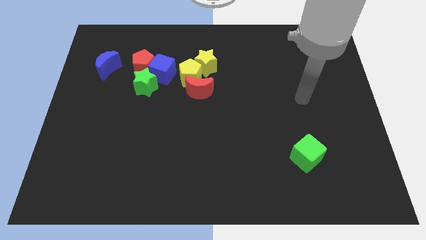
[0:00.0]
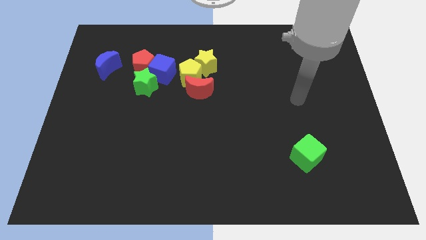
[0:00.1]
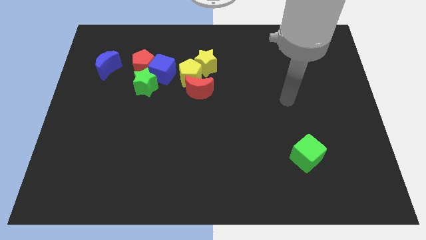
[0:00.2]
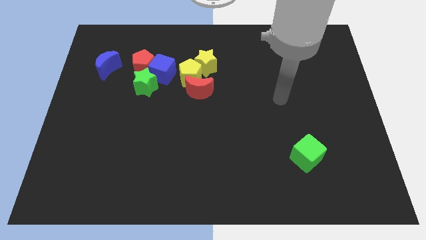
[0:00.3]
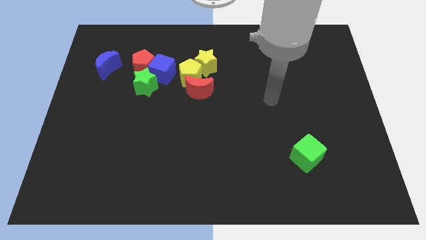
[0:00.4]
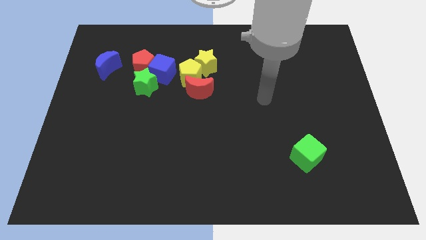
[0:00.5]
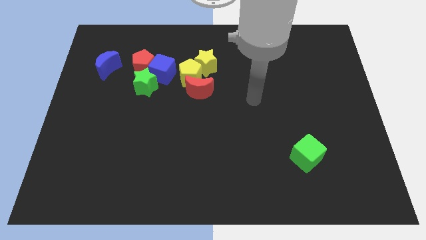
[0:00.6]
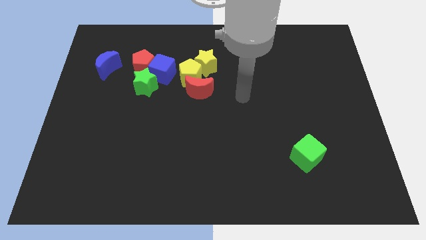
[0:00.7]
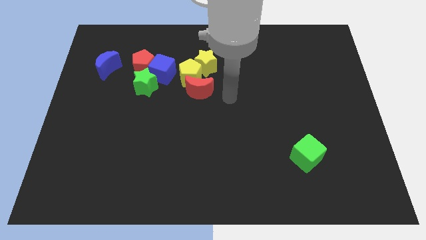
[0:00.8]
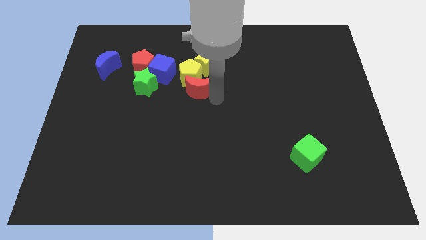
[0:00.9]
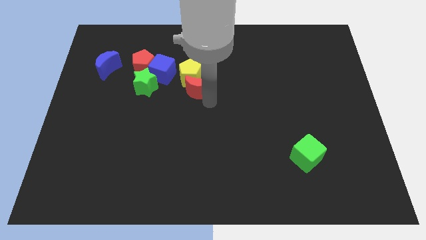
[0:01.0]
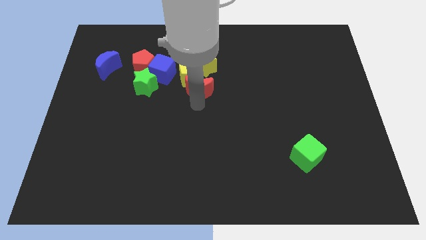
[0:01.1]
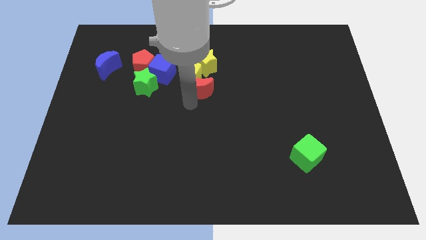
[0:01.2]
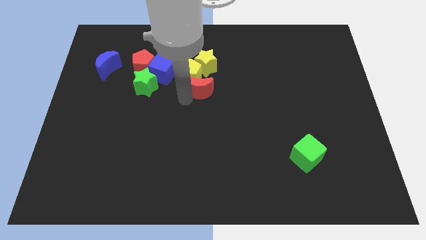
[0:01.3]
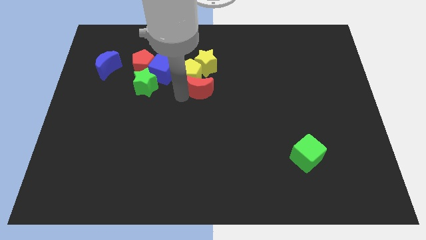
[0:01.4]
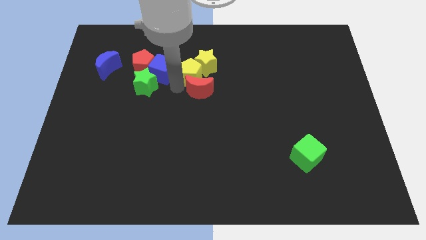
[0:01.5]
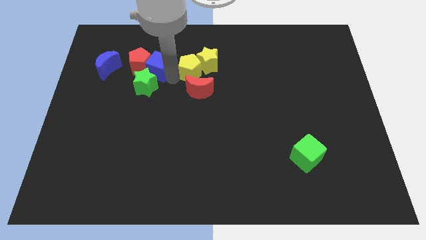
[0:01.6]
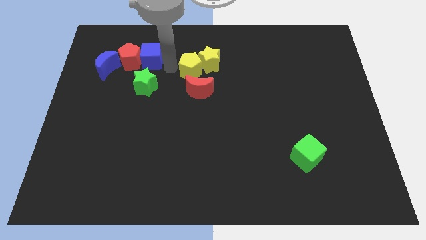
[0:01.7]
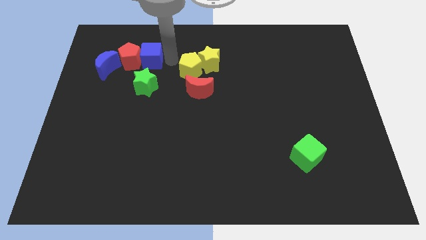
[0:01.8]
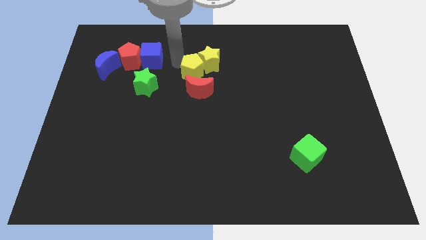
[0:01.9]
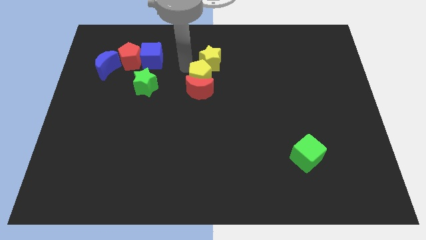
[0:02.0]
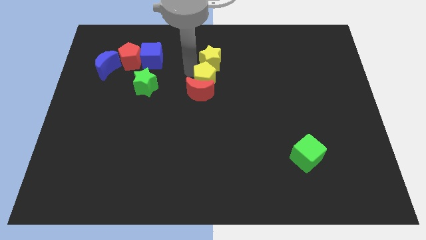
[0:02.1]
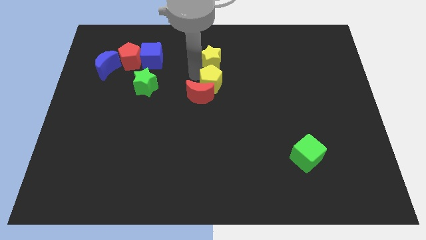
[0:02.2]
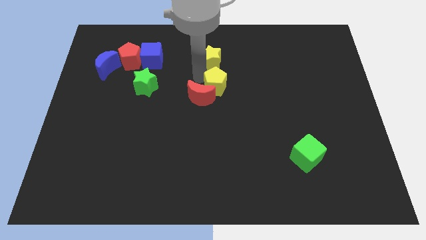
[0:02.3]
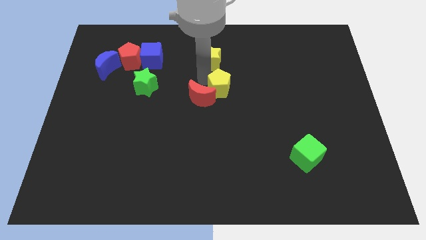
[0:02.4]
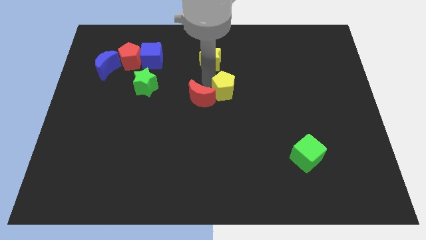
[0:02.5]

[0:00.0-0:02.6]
pull the yellow pentagon apart from the group of blocks

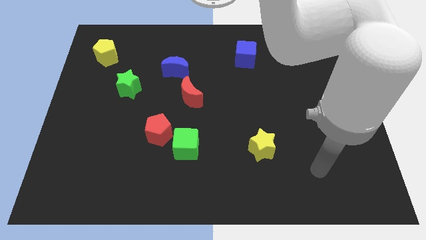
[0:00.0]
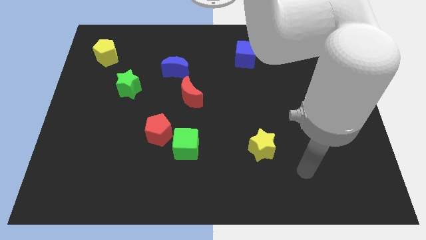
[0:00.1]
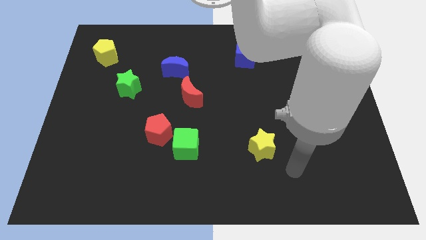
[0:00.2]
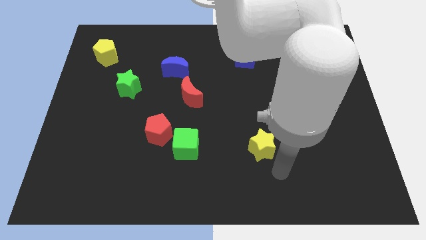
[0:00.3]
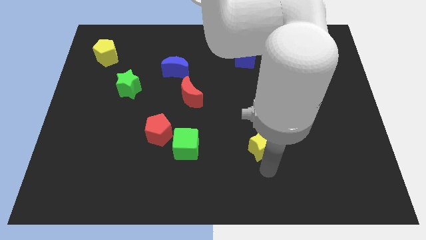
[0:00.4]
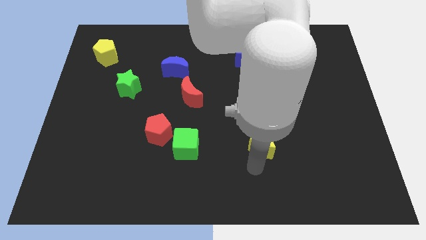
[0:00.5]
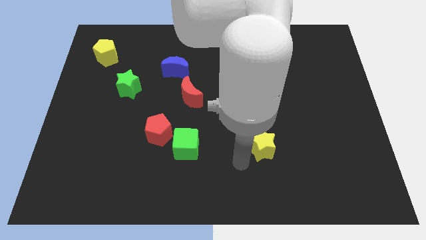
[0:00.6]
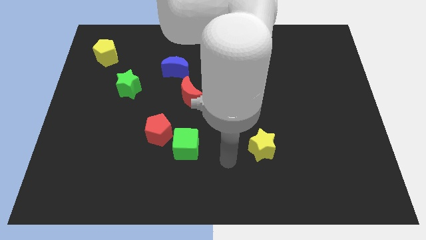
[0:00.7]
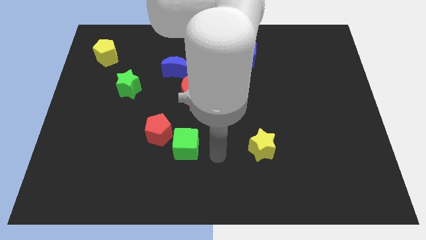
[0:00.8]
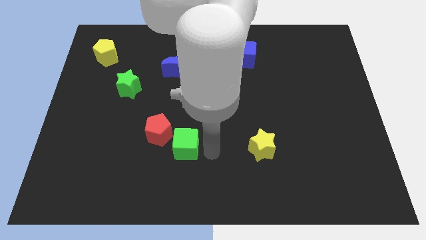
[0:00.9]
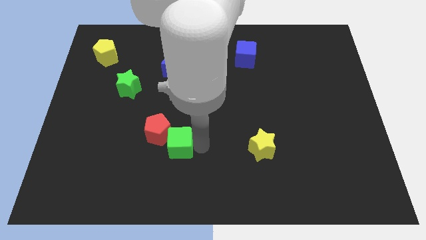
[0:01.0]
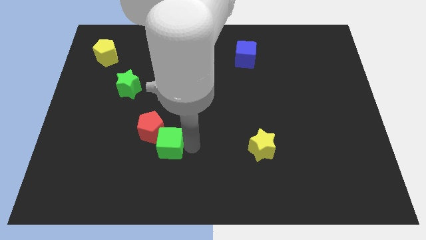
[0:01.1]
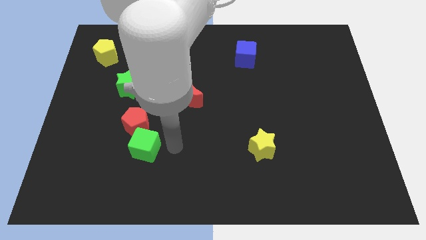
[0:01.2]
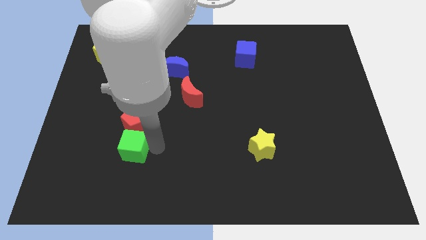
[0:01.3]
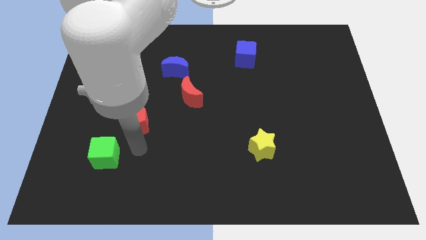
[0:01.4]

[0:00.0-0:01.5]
separate the red pentagon from the green cube

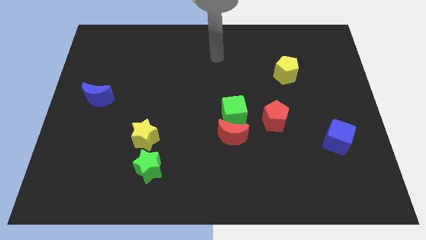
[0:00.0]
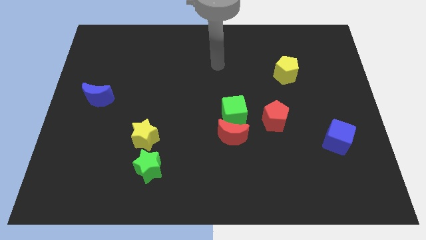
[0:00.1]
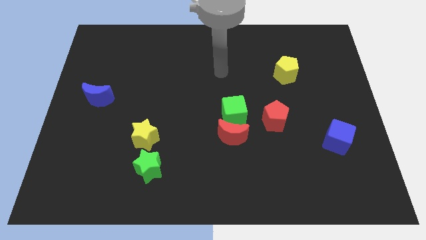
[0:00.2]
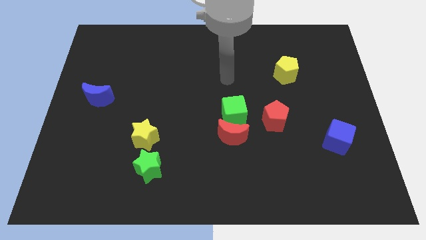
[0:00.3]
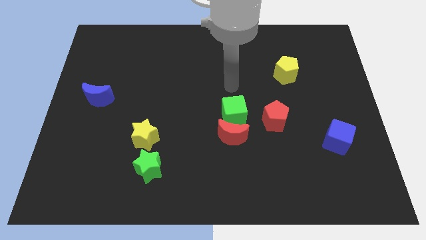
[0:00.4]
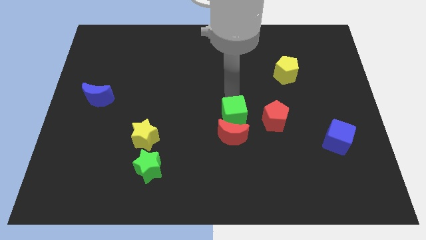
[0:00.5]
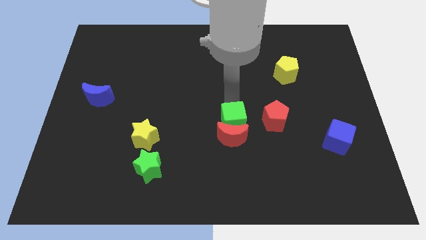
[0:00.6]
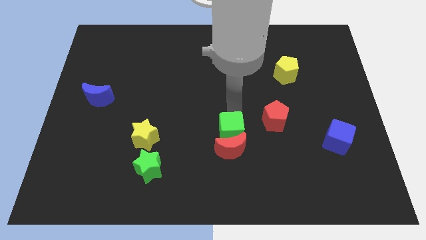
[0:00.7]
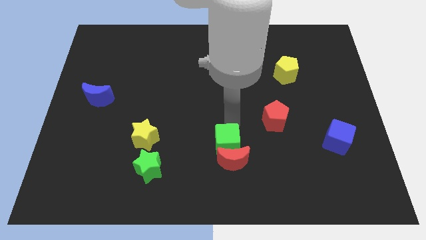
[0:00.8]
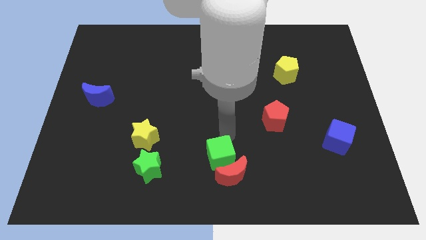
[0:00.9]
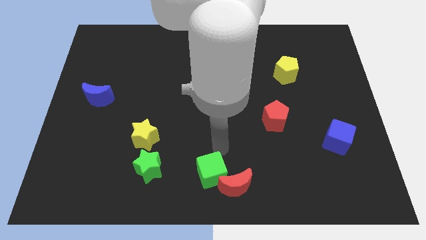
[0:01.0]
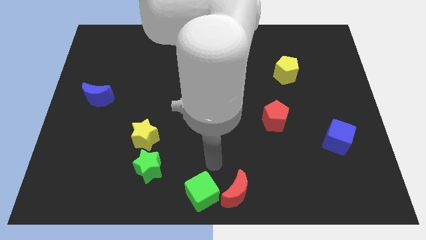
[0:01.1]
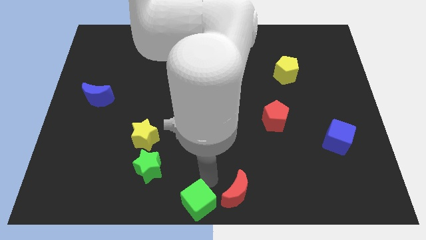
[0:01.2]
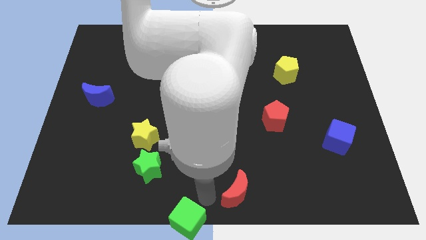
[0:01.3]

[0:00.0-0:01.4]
pull the red moon apart from the green cube

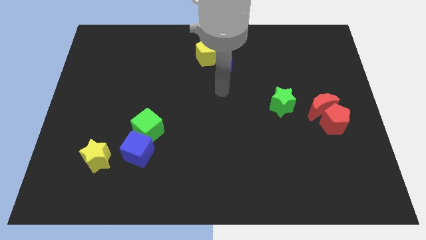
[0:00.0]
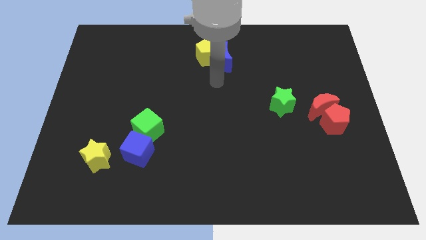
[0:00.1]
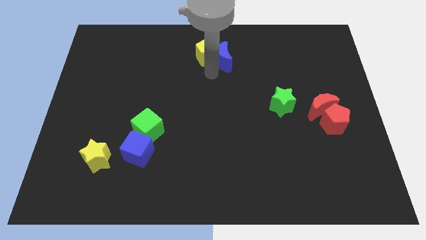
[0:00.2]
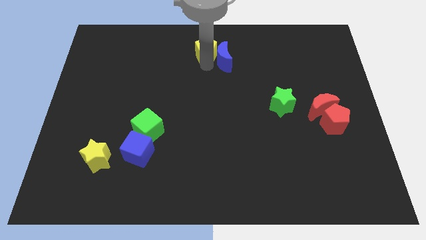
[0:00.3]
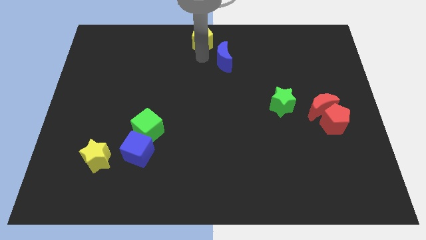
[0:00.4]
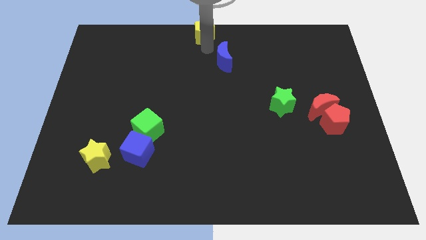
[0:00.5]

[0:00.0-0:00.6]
separate the blue moon from the yellow pentagon

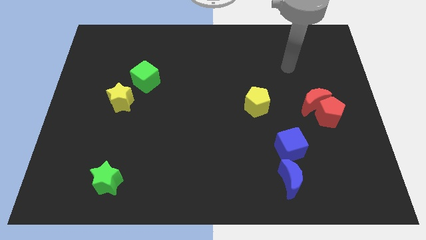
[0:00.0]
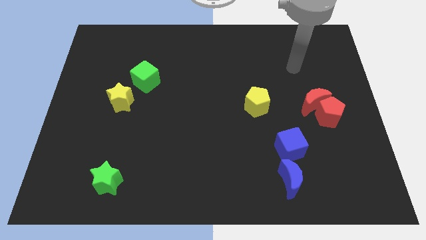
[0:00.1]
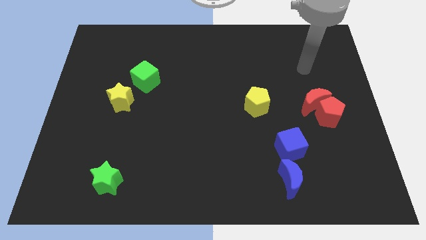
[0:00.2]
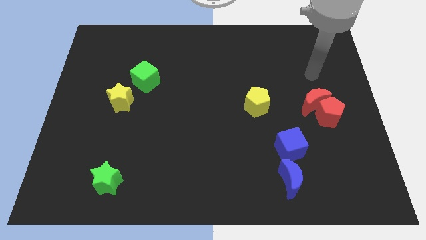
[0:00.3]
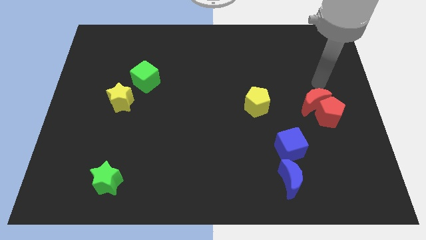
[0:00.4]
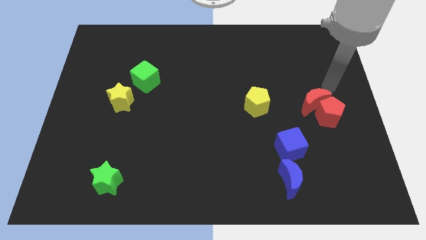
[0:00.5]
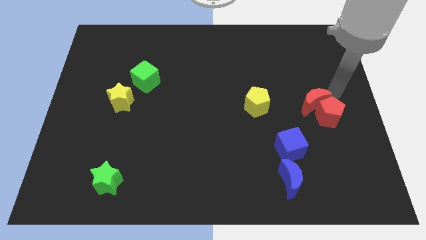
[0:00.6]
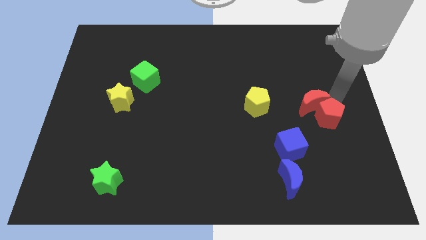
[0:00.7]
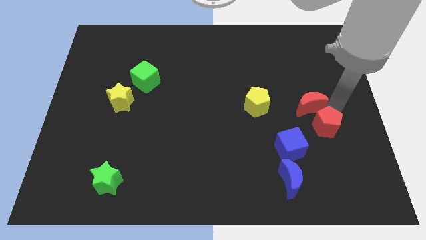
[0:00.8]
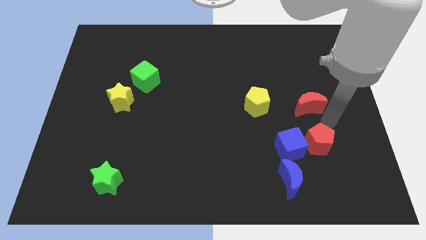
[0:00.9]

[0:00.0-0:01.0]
move the red moon away from the red pentagon

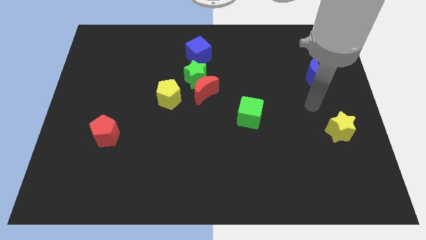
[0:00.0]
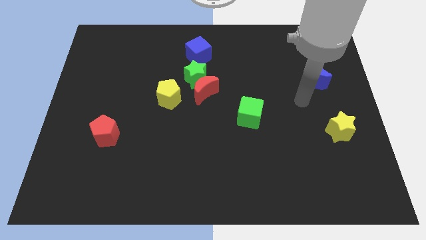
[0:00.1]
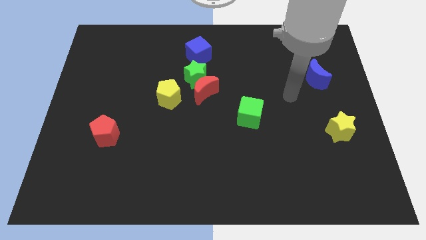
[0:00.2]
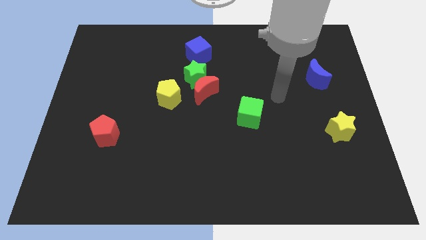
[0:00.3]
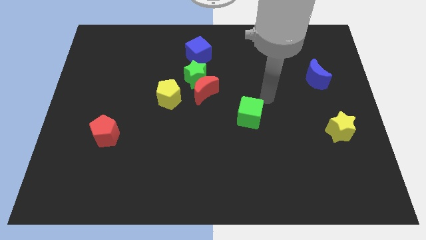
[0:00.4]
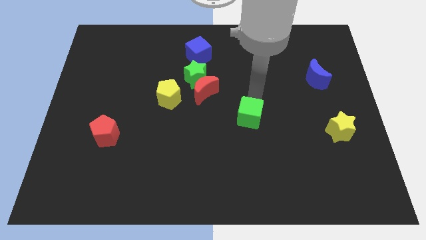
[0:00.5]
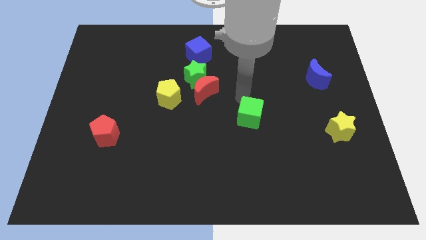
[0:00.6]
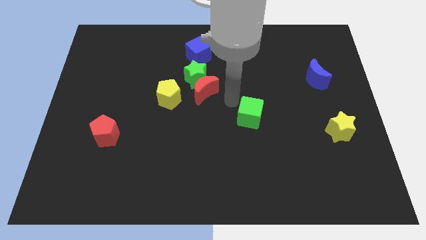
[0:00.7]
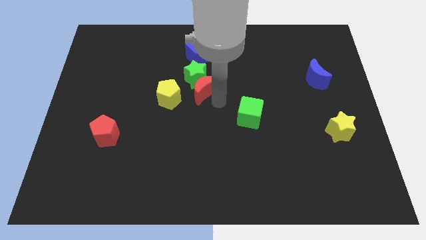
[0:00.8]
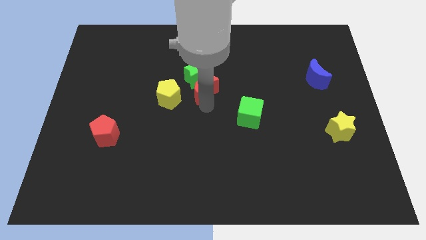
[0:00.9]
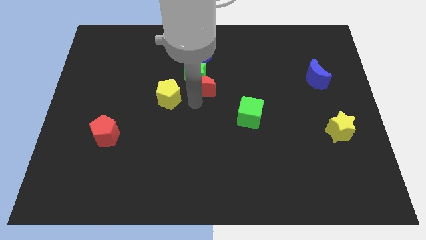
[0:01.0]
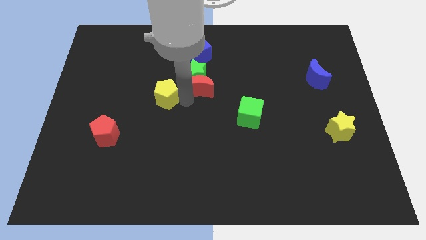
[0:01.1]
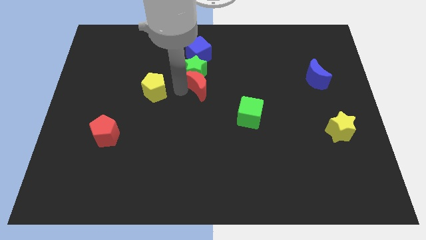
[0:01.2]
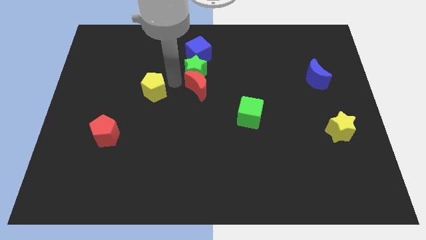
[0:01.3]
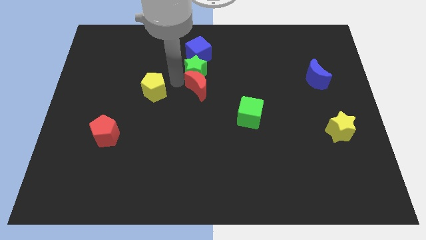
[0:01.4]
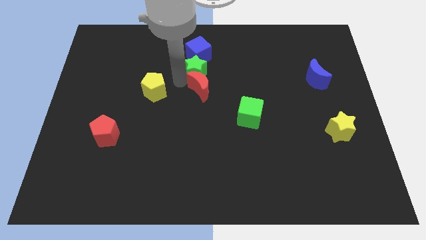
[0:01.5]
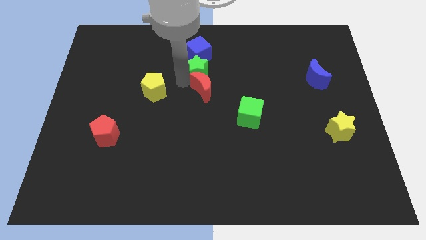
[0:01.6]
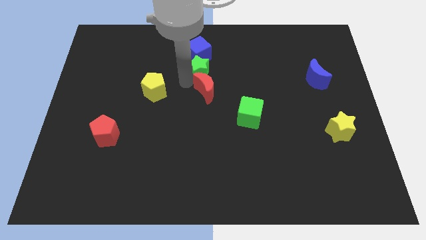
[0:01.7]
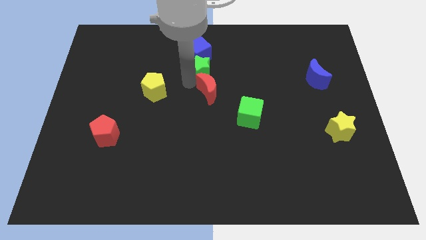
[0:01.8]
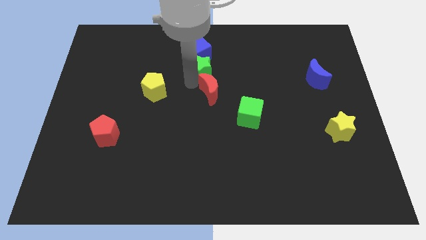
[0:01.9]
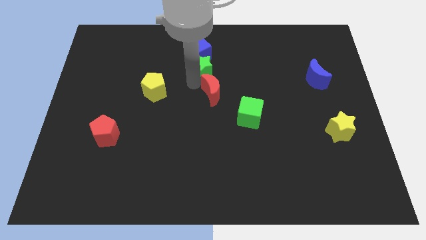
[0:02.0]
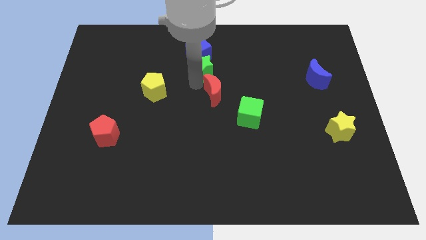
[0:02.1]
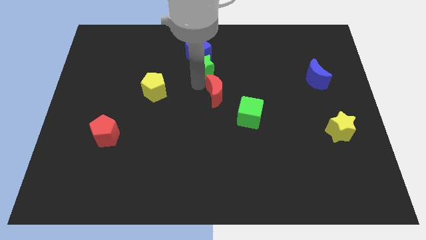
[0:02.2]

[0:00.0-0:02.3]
move the red moon away from the green star and yellow pentagon
